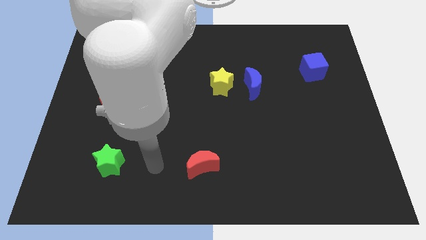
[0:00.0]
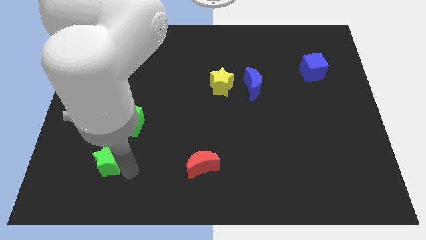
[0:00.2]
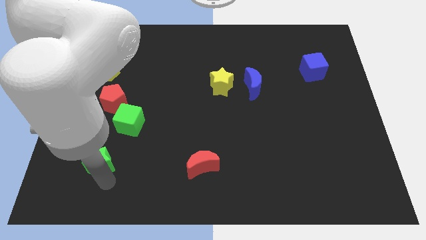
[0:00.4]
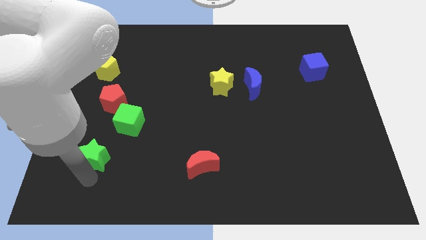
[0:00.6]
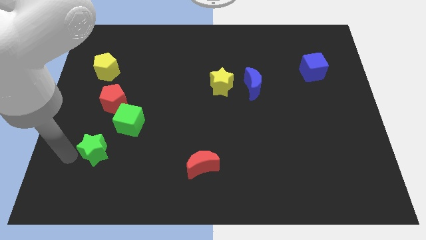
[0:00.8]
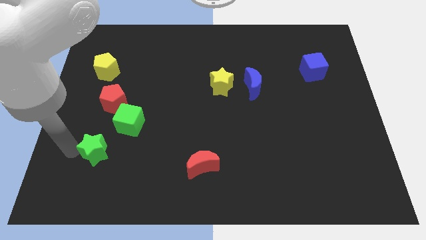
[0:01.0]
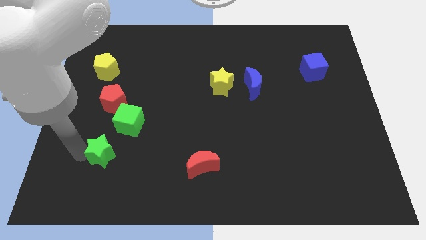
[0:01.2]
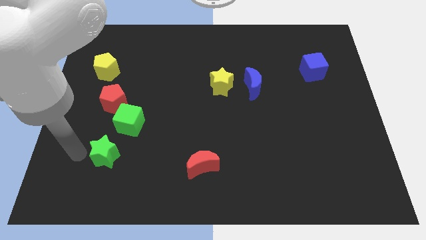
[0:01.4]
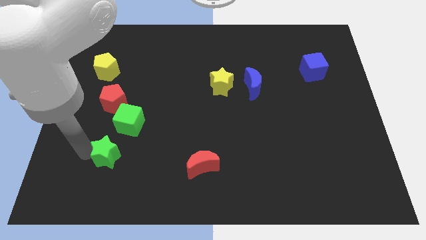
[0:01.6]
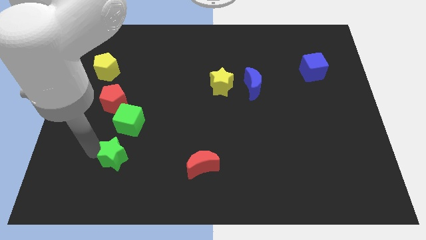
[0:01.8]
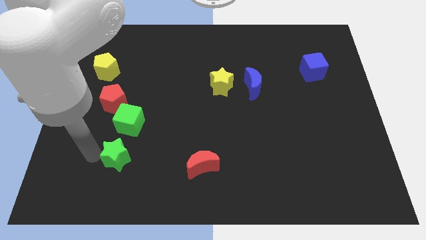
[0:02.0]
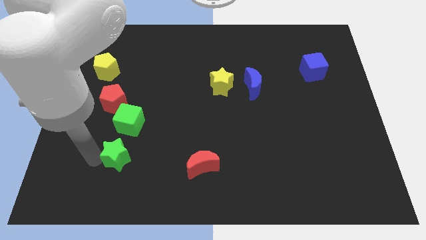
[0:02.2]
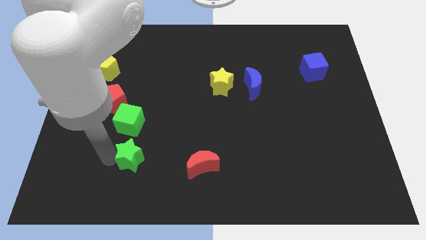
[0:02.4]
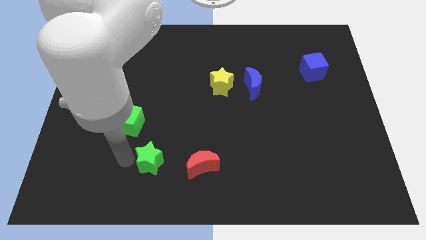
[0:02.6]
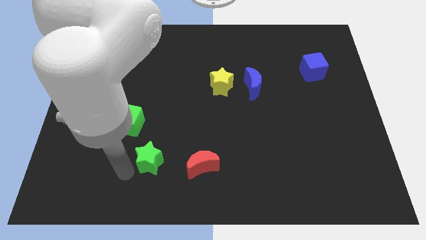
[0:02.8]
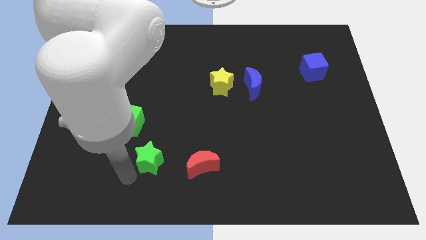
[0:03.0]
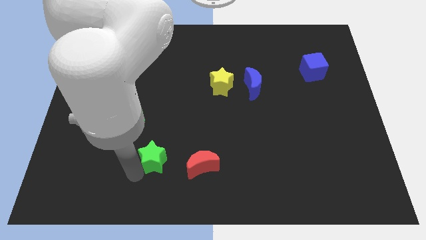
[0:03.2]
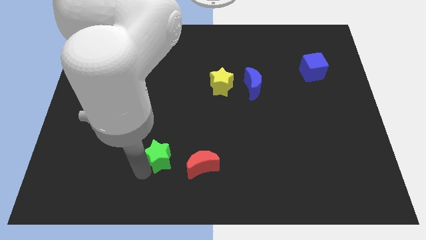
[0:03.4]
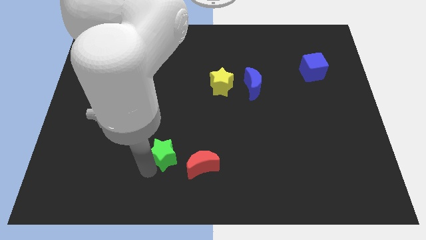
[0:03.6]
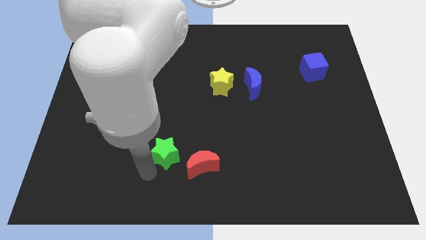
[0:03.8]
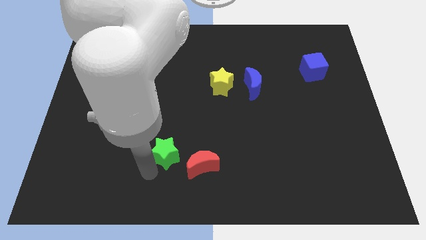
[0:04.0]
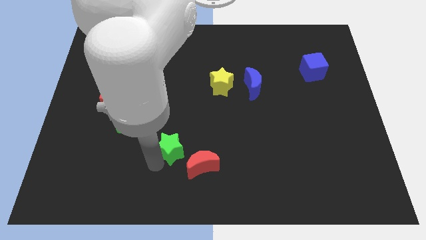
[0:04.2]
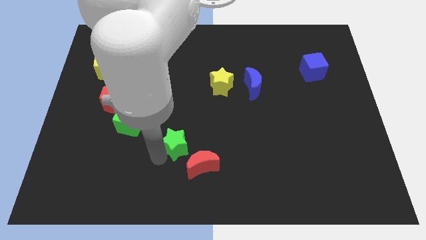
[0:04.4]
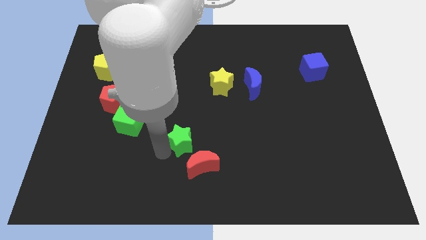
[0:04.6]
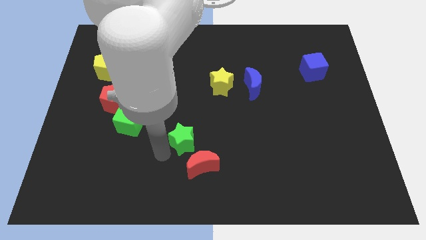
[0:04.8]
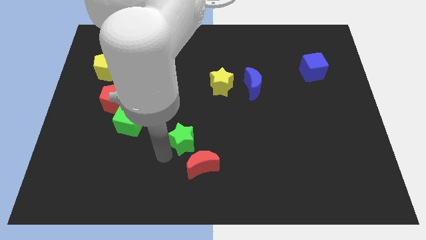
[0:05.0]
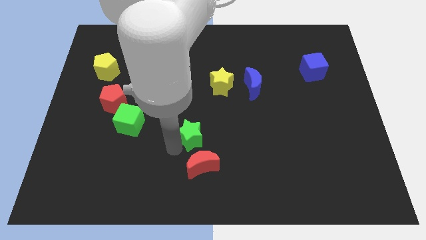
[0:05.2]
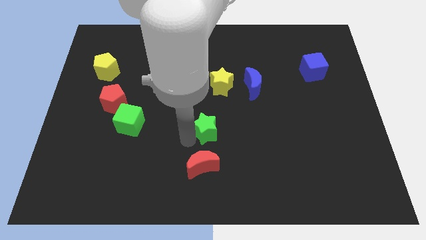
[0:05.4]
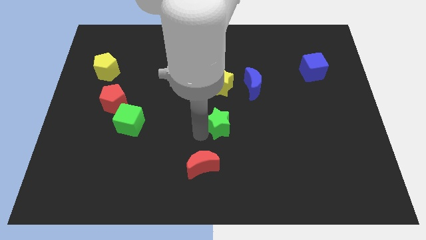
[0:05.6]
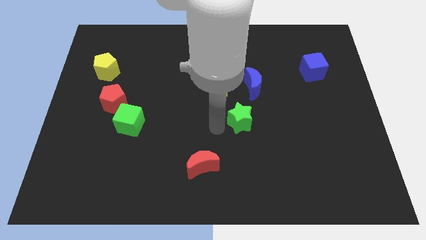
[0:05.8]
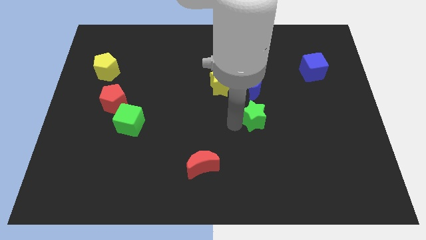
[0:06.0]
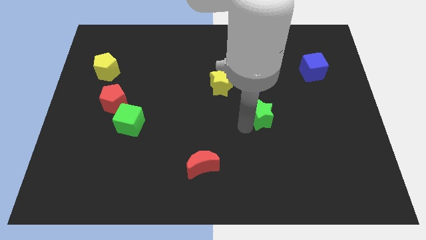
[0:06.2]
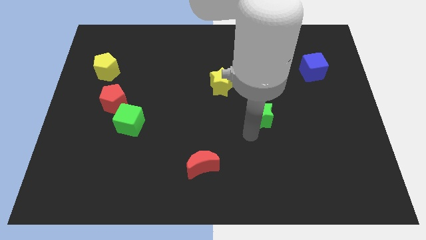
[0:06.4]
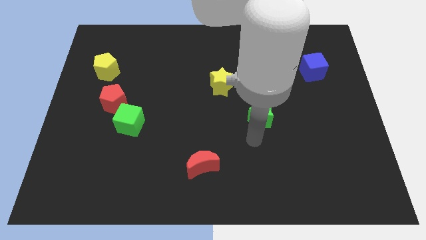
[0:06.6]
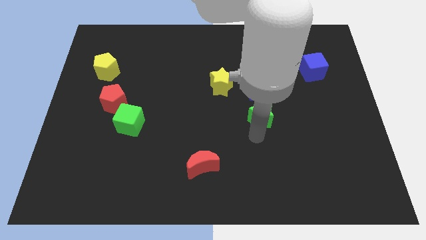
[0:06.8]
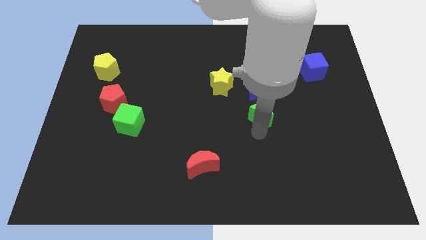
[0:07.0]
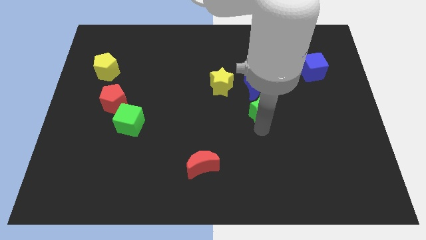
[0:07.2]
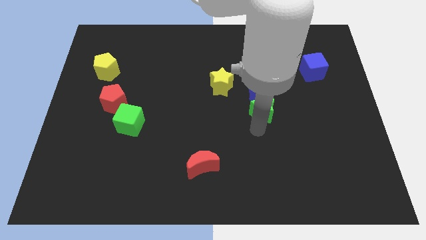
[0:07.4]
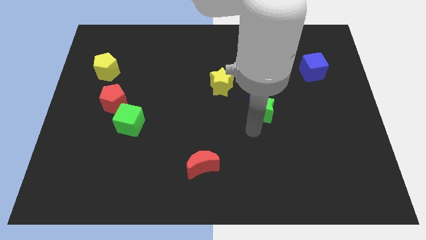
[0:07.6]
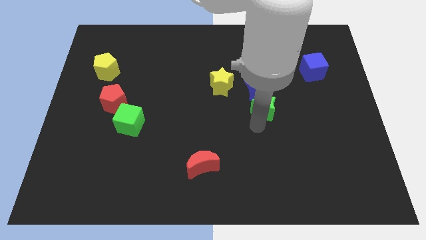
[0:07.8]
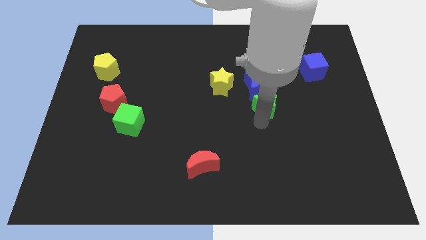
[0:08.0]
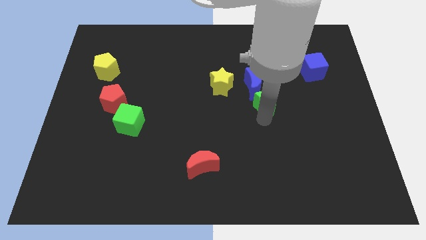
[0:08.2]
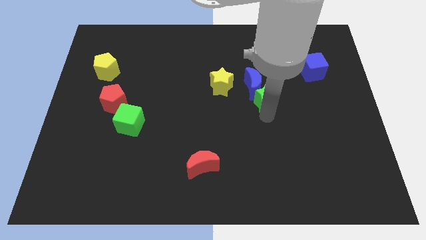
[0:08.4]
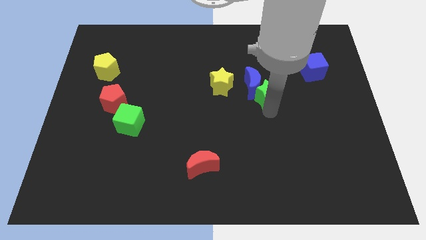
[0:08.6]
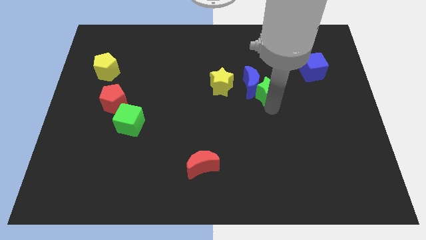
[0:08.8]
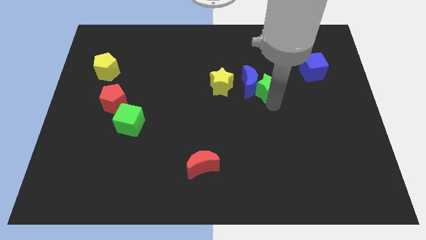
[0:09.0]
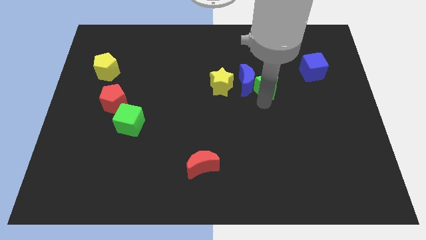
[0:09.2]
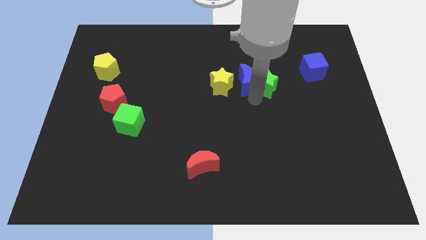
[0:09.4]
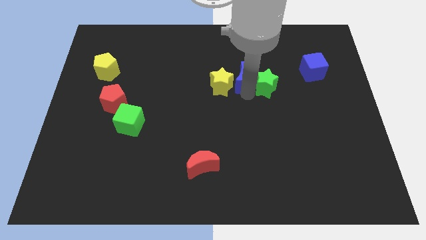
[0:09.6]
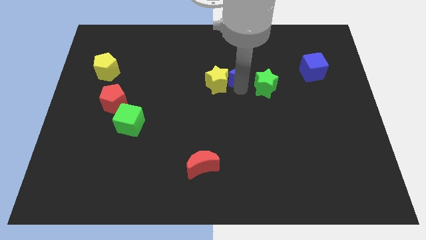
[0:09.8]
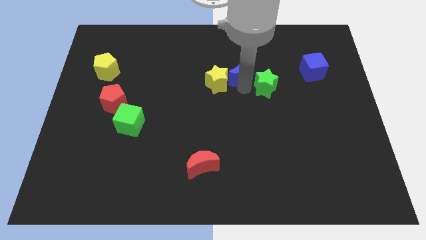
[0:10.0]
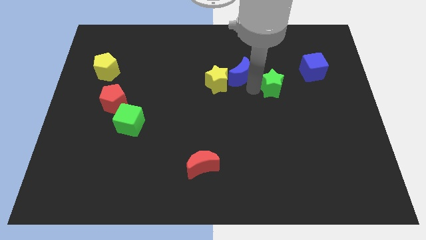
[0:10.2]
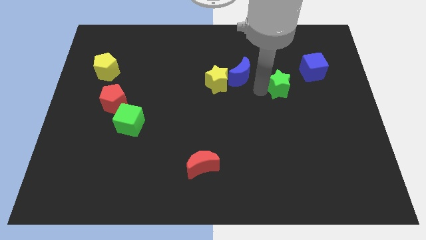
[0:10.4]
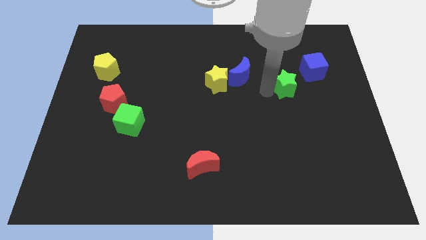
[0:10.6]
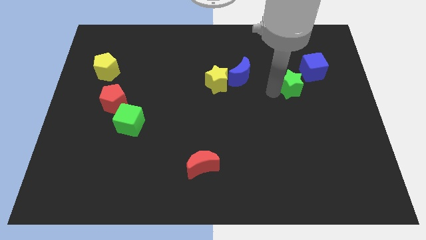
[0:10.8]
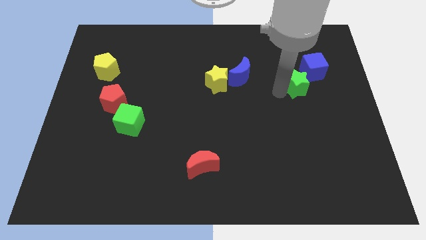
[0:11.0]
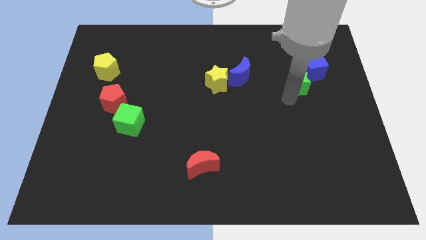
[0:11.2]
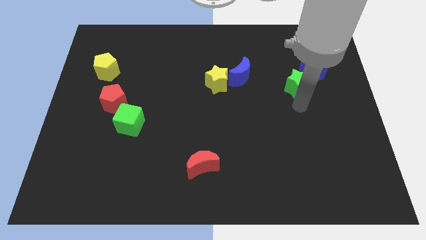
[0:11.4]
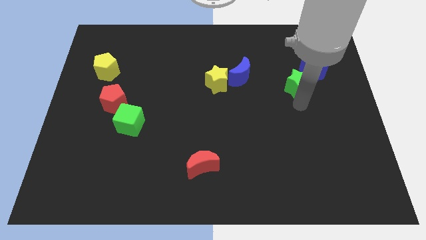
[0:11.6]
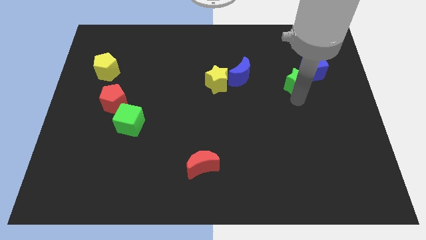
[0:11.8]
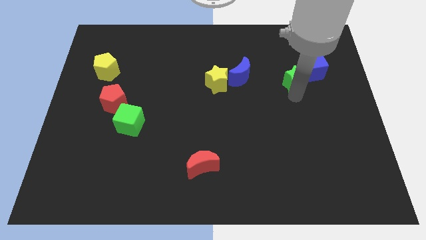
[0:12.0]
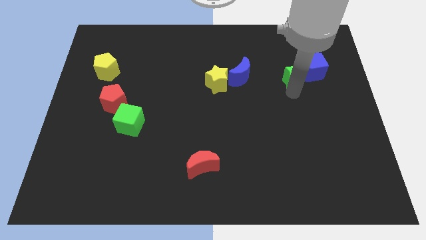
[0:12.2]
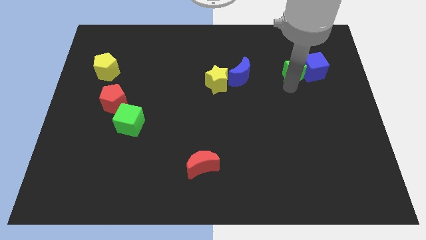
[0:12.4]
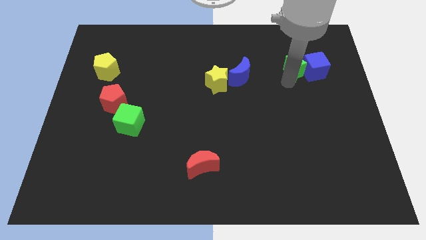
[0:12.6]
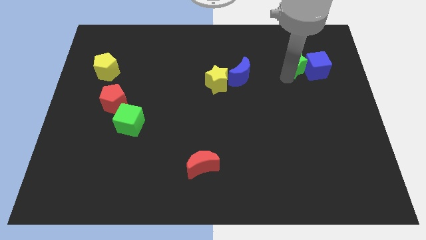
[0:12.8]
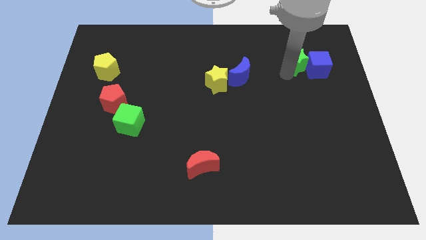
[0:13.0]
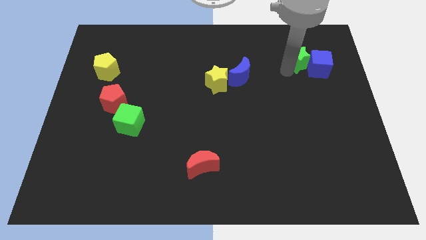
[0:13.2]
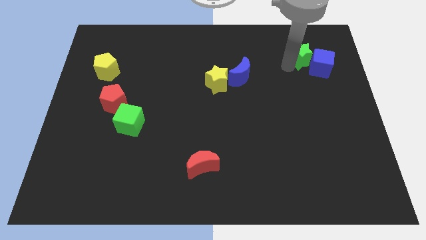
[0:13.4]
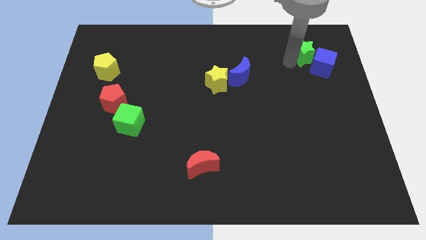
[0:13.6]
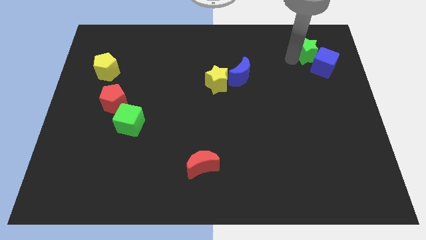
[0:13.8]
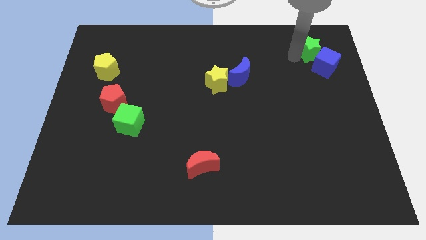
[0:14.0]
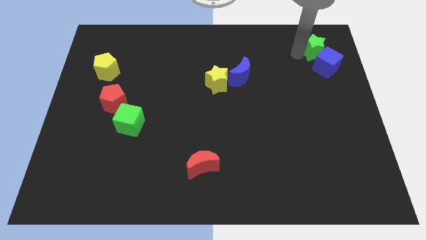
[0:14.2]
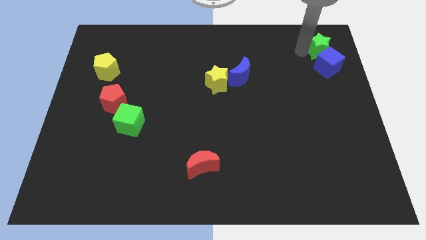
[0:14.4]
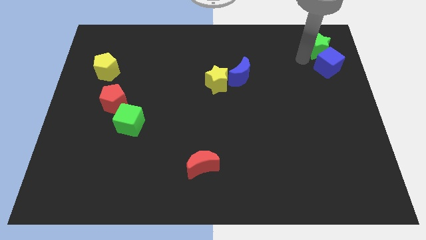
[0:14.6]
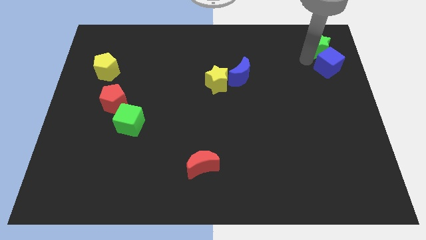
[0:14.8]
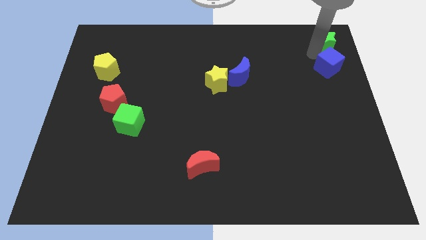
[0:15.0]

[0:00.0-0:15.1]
push the green star to the top right corner
